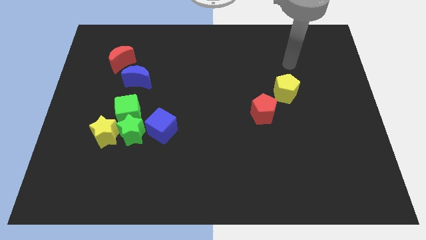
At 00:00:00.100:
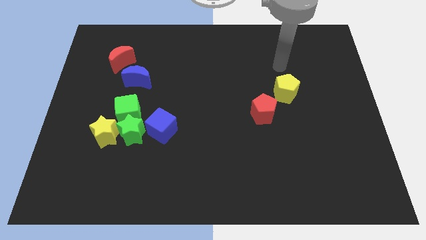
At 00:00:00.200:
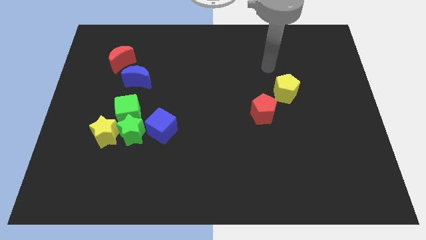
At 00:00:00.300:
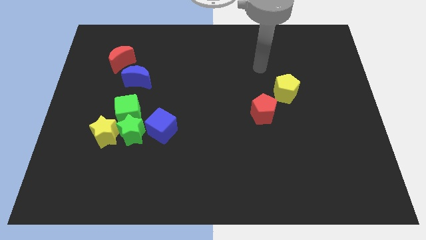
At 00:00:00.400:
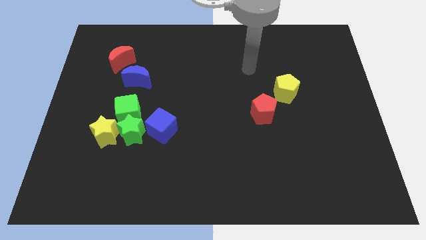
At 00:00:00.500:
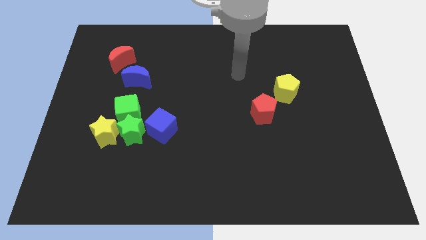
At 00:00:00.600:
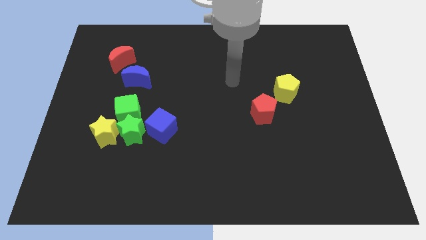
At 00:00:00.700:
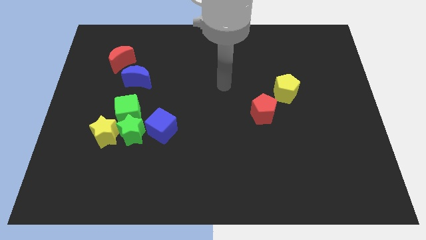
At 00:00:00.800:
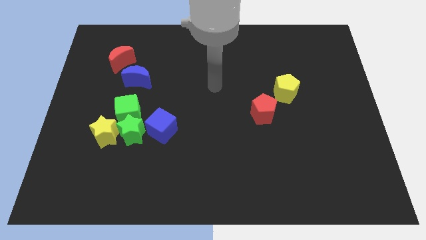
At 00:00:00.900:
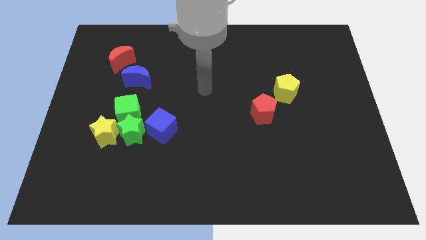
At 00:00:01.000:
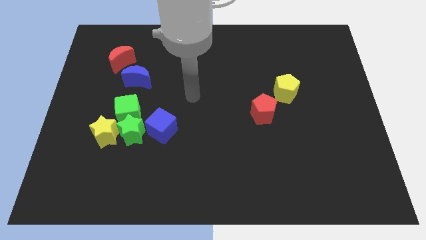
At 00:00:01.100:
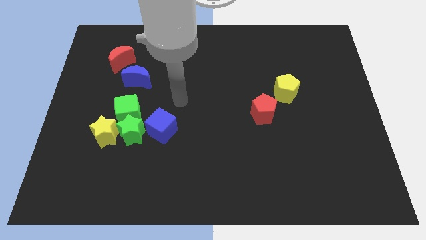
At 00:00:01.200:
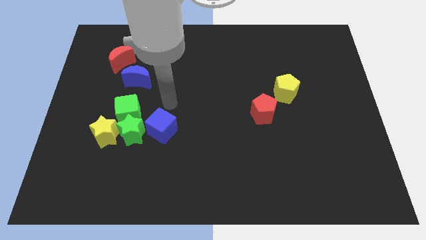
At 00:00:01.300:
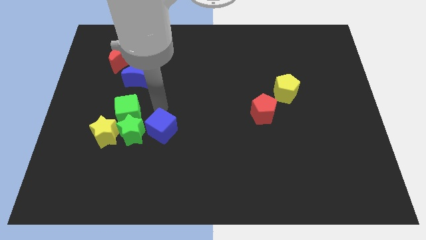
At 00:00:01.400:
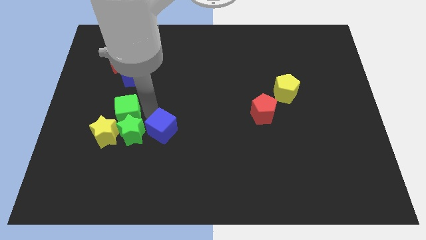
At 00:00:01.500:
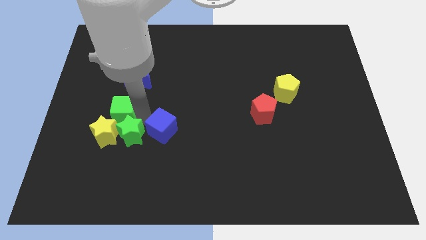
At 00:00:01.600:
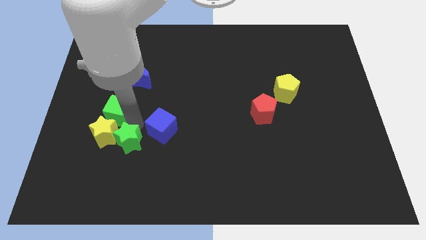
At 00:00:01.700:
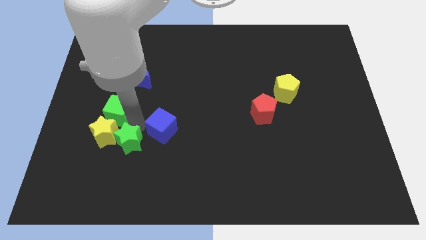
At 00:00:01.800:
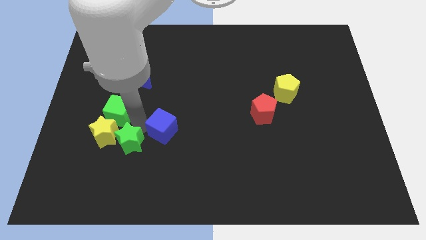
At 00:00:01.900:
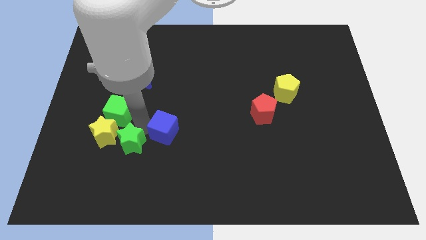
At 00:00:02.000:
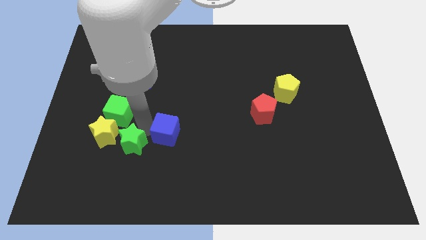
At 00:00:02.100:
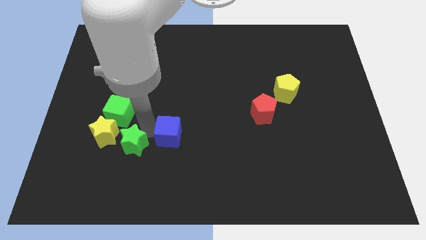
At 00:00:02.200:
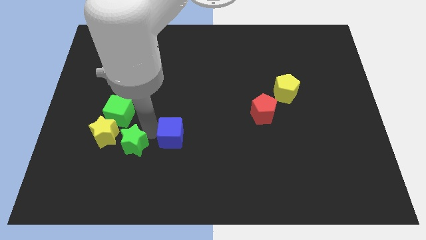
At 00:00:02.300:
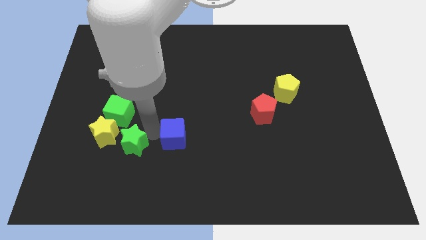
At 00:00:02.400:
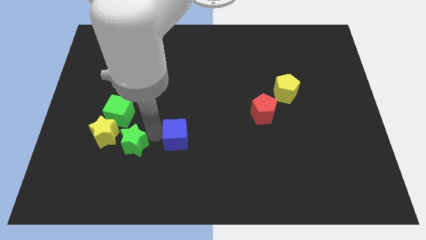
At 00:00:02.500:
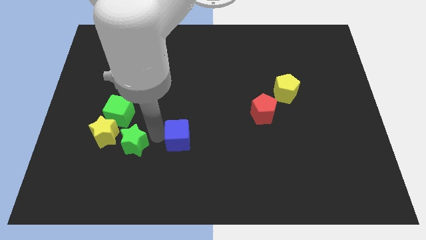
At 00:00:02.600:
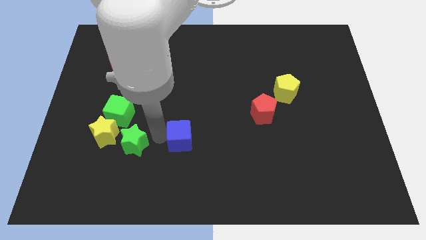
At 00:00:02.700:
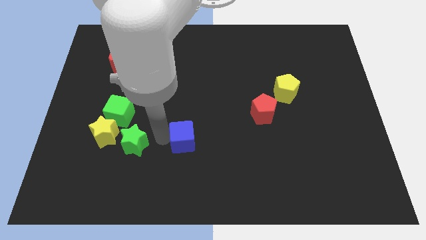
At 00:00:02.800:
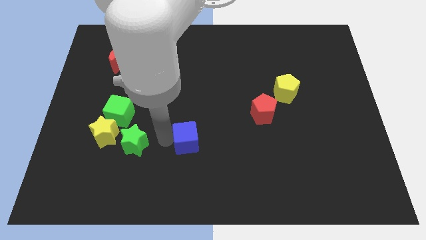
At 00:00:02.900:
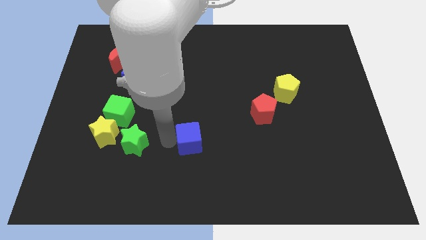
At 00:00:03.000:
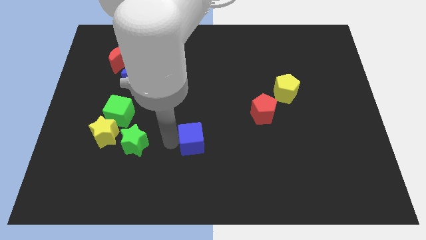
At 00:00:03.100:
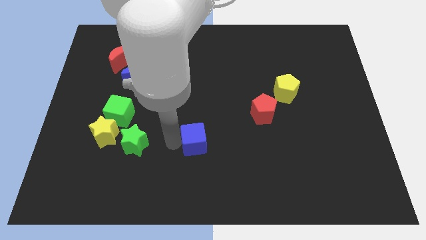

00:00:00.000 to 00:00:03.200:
push the blue cube slightly right

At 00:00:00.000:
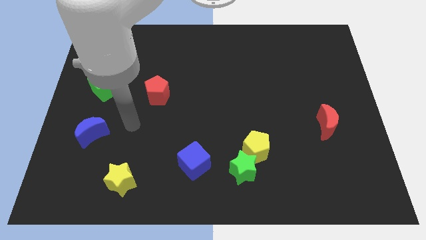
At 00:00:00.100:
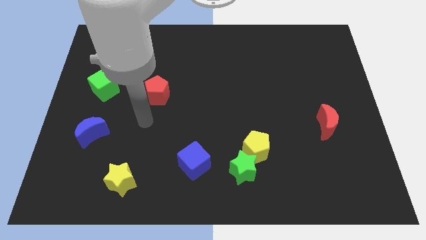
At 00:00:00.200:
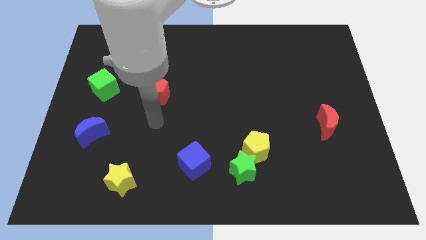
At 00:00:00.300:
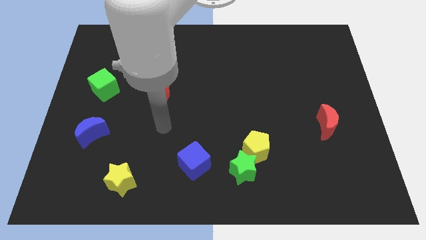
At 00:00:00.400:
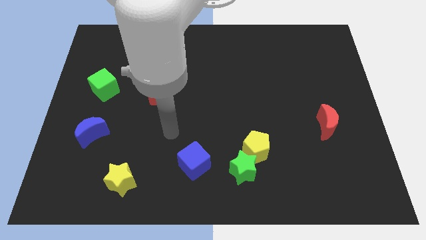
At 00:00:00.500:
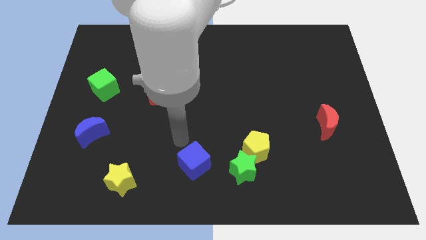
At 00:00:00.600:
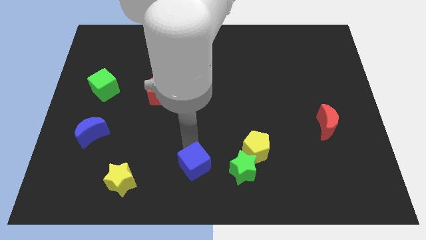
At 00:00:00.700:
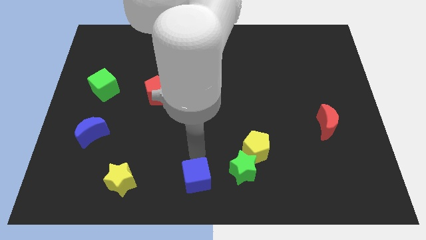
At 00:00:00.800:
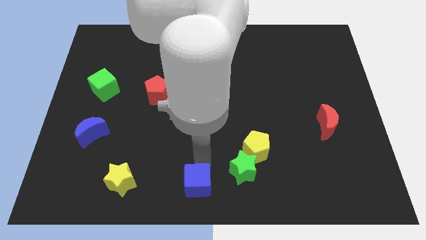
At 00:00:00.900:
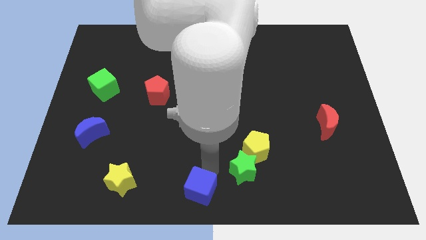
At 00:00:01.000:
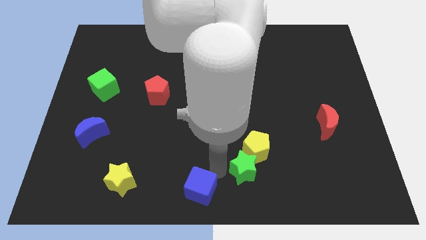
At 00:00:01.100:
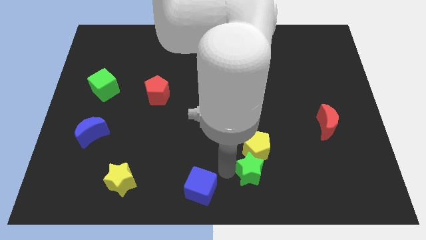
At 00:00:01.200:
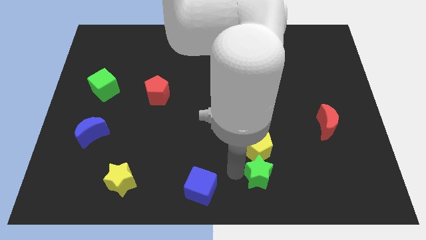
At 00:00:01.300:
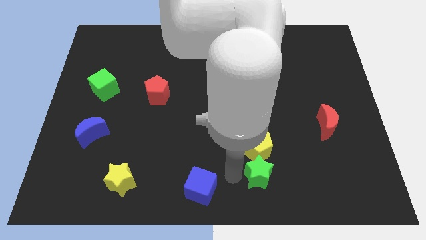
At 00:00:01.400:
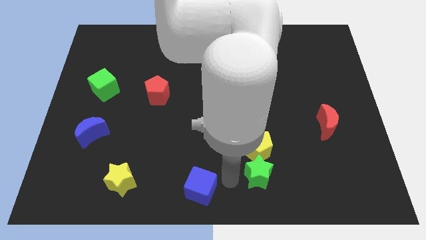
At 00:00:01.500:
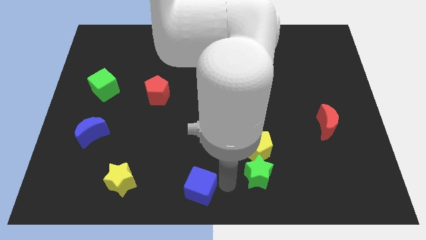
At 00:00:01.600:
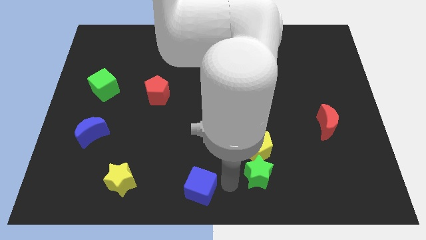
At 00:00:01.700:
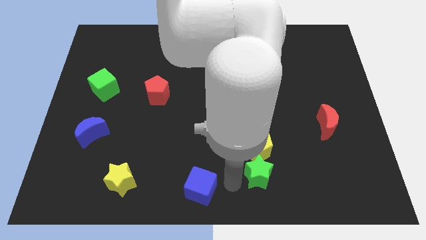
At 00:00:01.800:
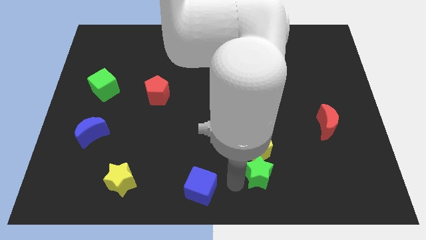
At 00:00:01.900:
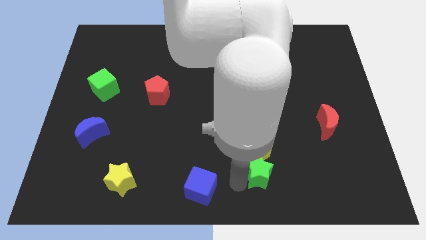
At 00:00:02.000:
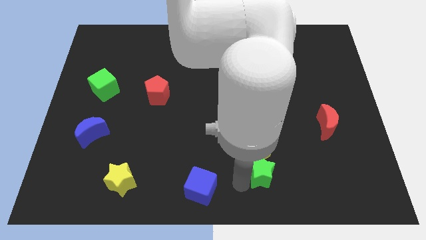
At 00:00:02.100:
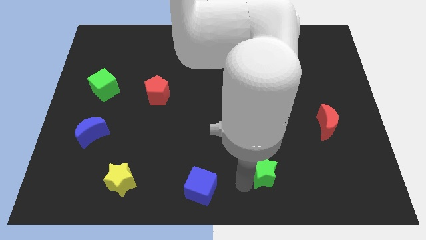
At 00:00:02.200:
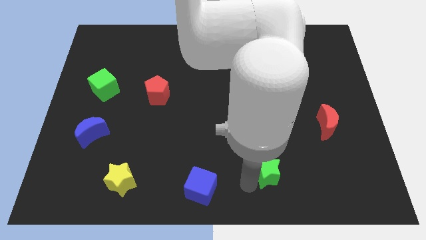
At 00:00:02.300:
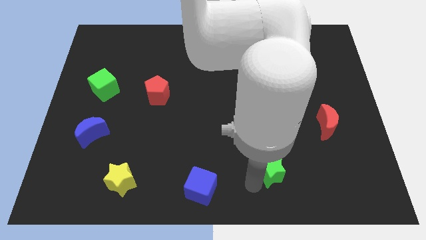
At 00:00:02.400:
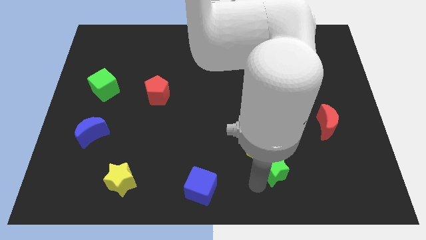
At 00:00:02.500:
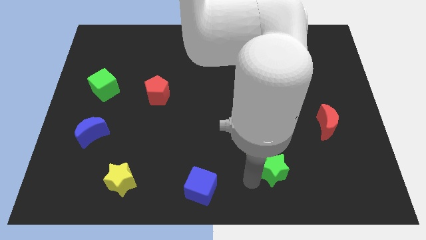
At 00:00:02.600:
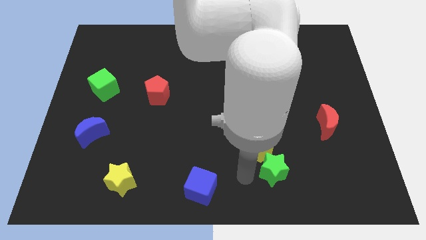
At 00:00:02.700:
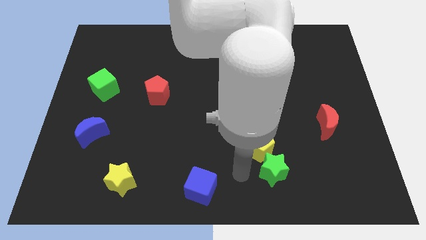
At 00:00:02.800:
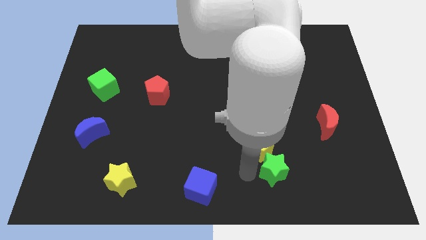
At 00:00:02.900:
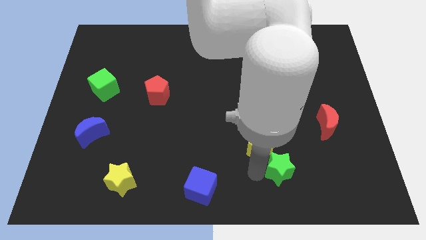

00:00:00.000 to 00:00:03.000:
move the green star to the right a little bit

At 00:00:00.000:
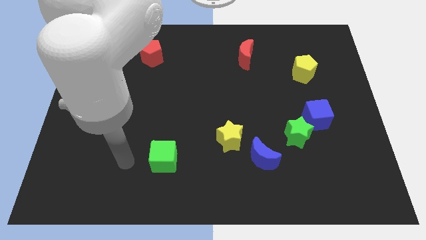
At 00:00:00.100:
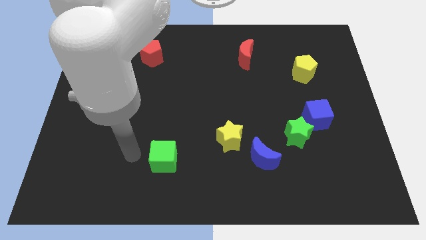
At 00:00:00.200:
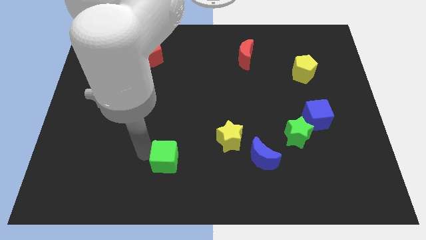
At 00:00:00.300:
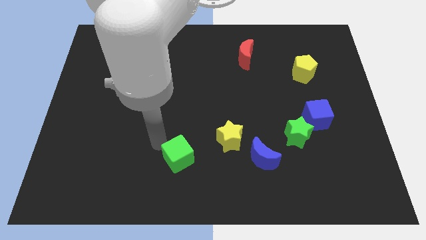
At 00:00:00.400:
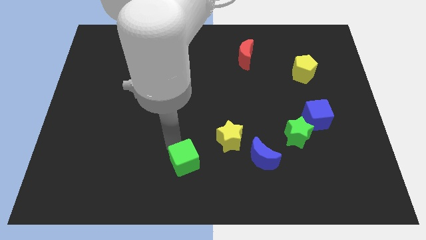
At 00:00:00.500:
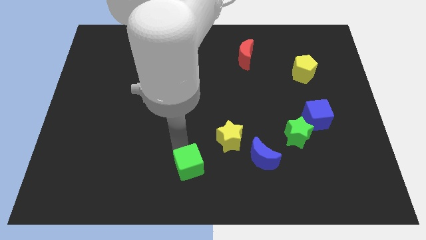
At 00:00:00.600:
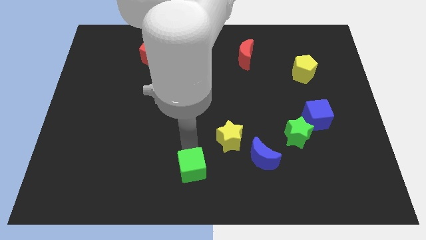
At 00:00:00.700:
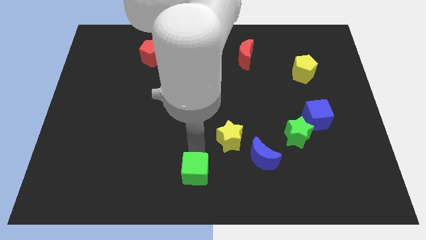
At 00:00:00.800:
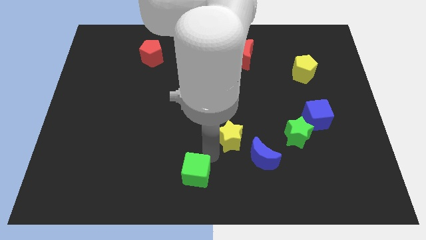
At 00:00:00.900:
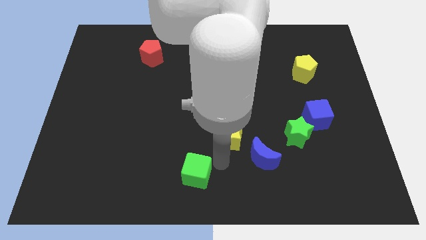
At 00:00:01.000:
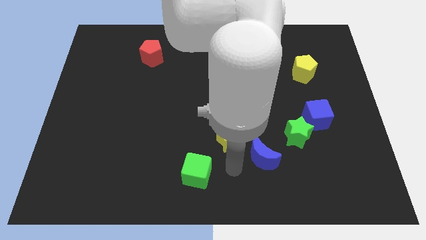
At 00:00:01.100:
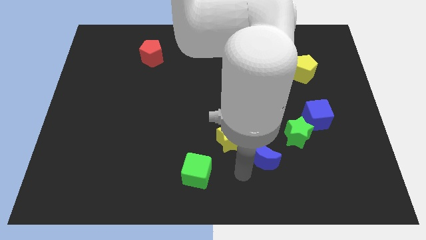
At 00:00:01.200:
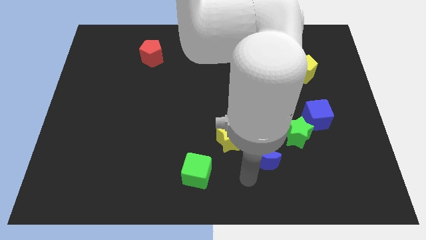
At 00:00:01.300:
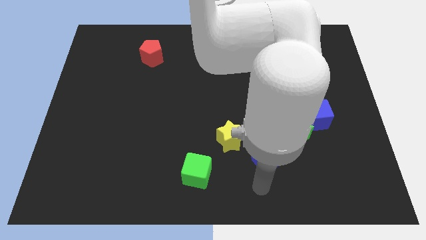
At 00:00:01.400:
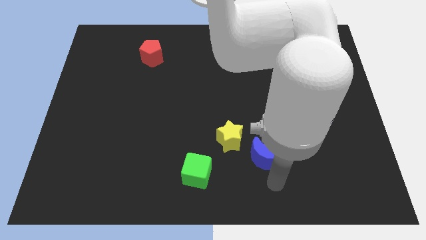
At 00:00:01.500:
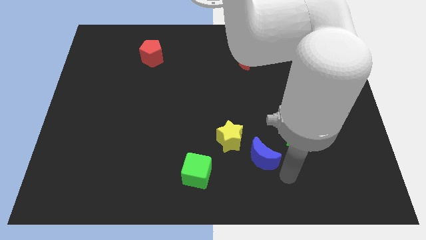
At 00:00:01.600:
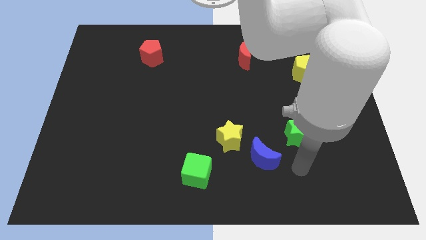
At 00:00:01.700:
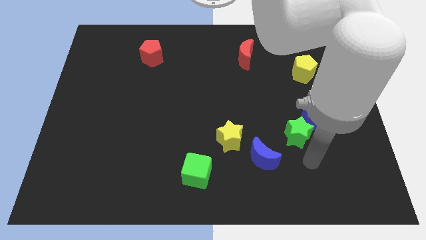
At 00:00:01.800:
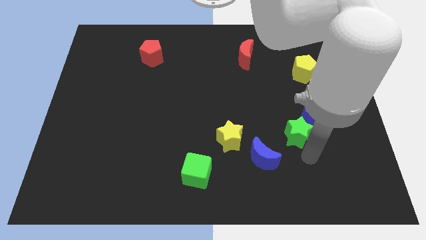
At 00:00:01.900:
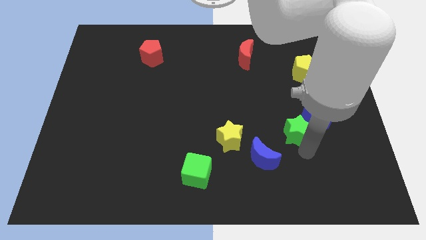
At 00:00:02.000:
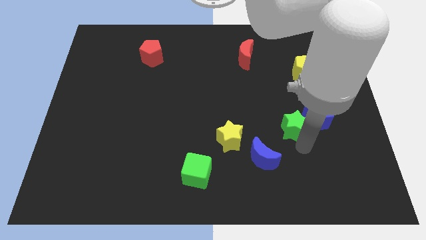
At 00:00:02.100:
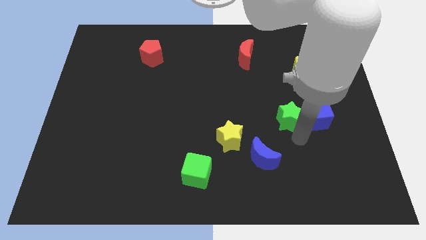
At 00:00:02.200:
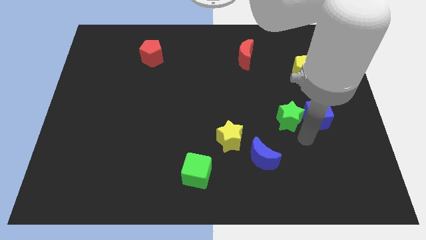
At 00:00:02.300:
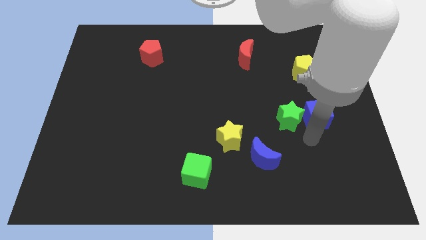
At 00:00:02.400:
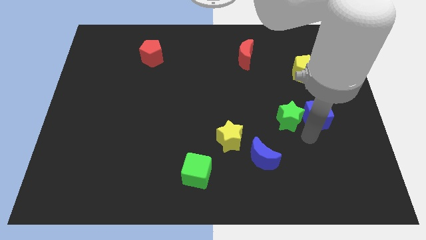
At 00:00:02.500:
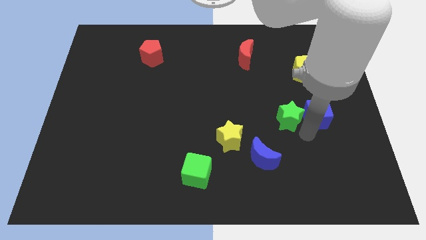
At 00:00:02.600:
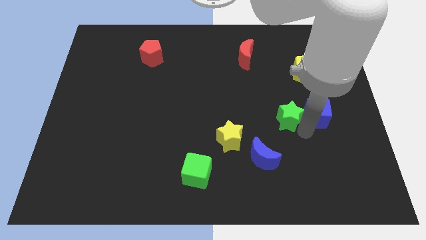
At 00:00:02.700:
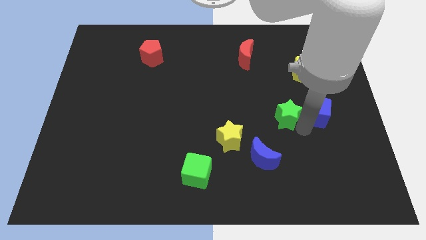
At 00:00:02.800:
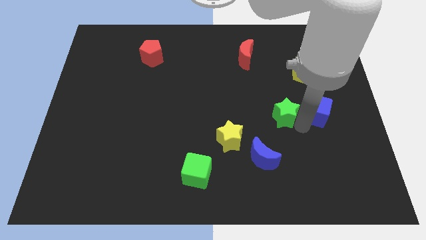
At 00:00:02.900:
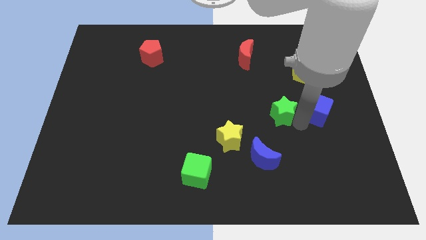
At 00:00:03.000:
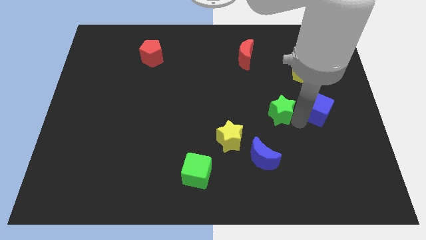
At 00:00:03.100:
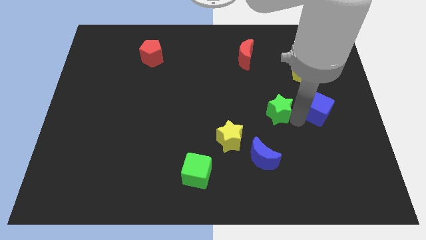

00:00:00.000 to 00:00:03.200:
slightly slide the green star diagonally up and to the left
